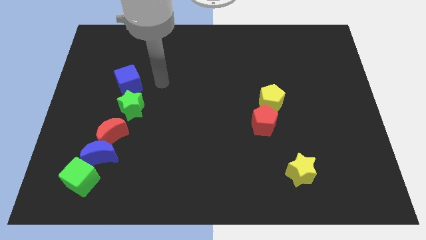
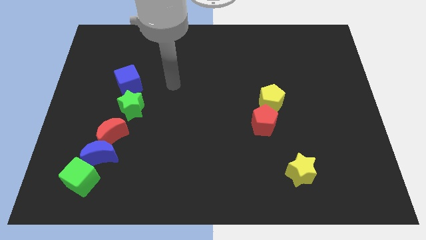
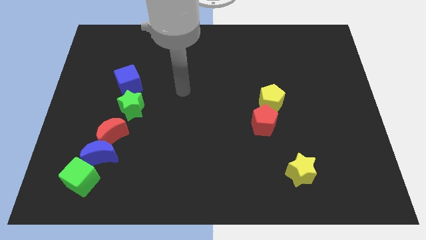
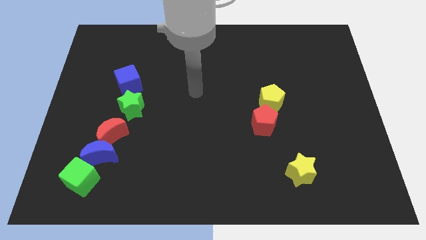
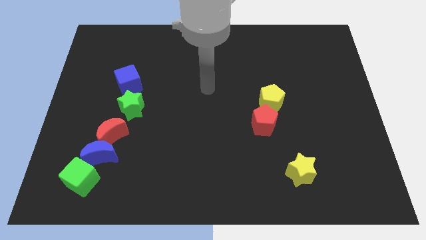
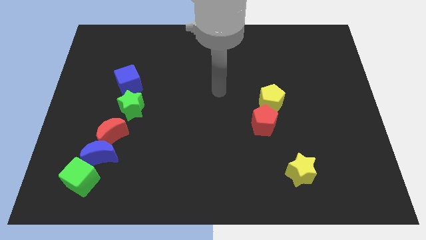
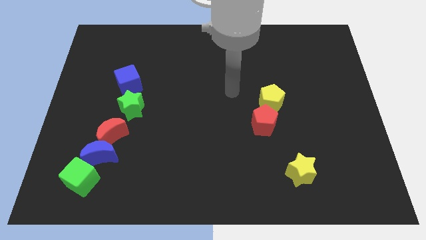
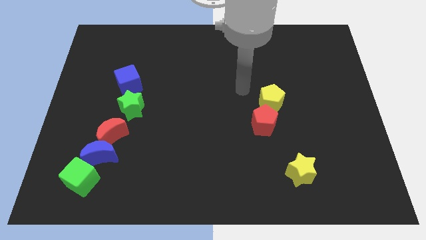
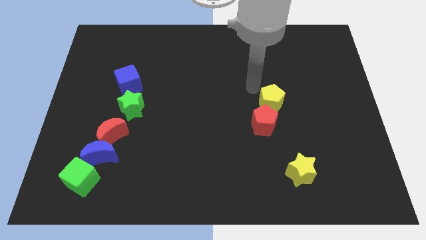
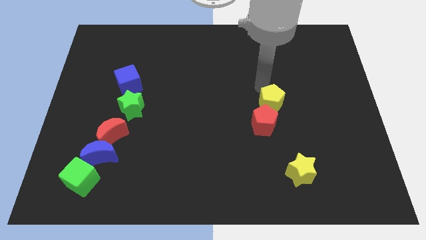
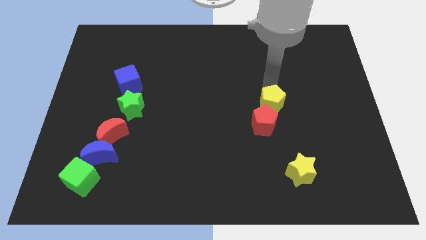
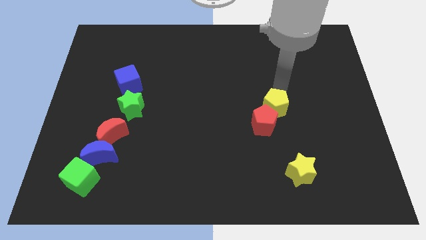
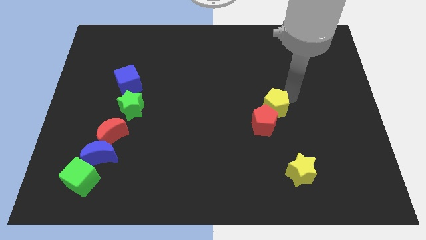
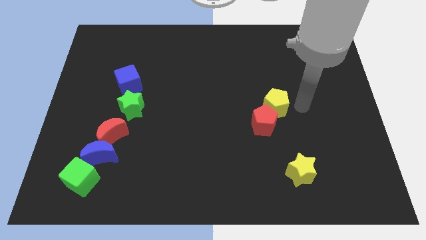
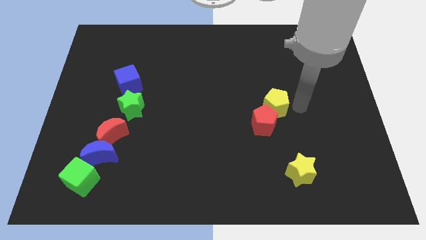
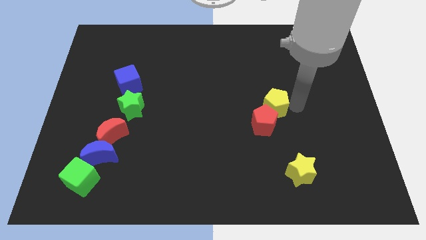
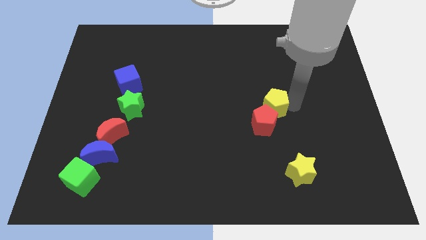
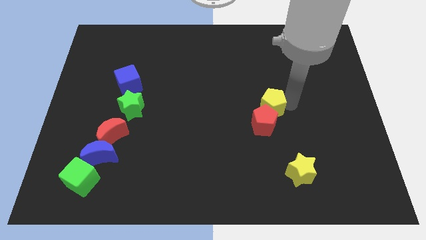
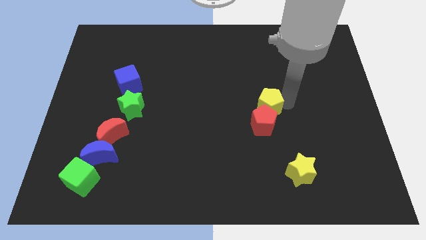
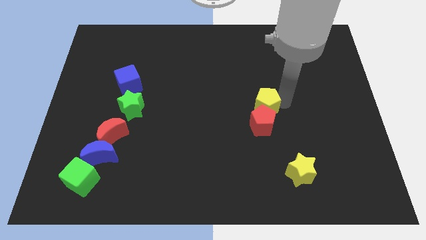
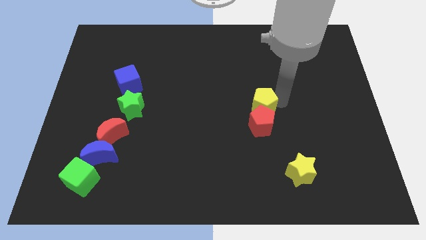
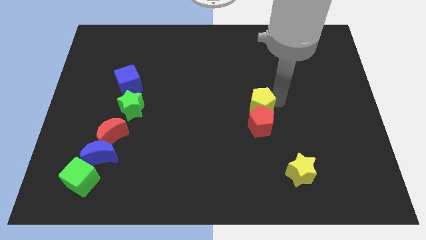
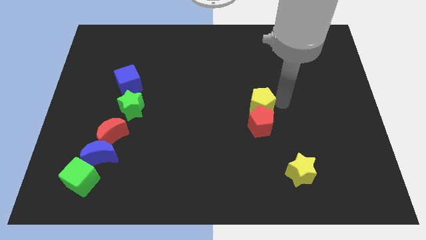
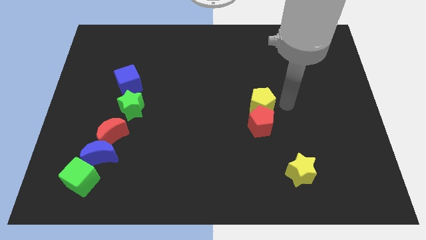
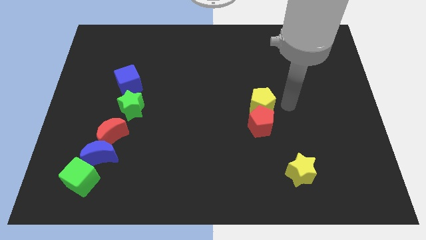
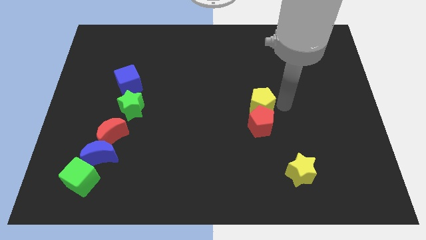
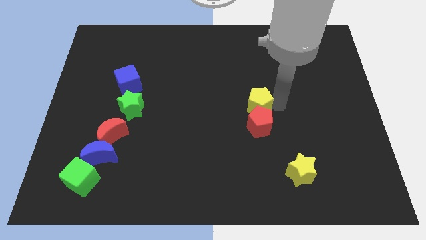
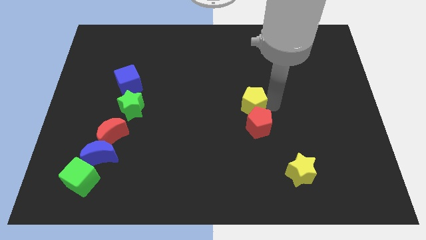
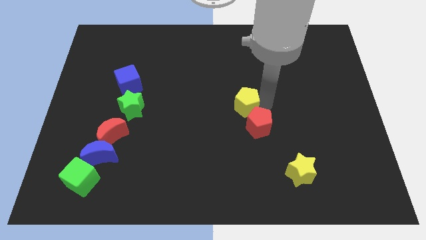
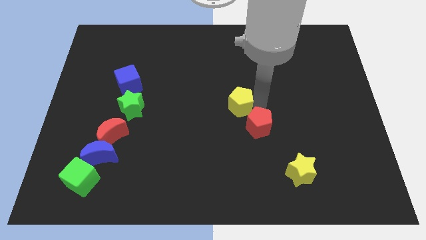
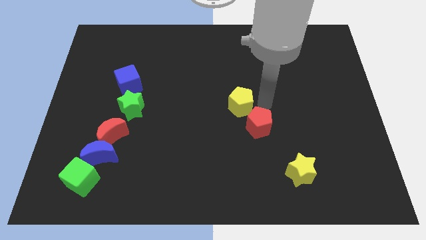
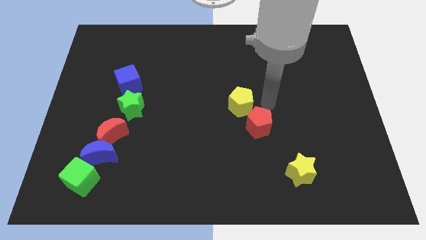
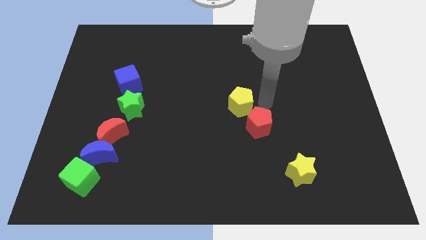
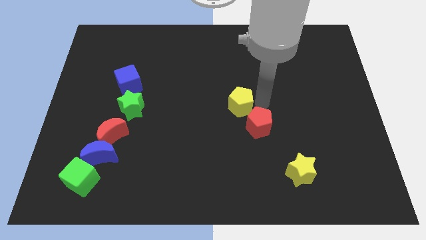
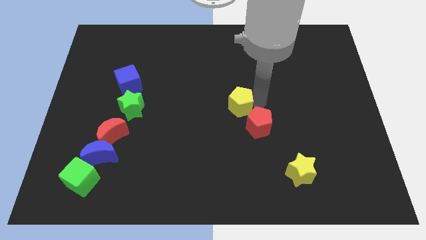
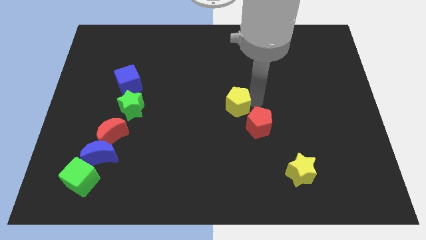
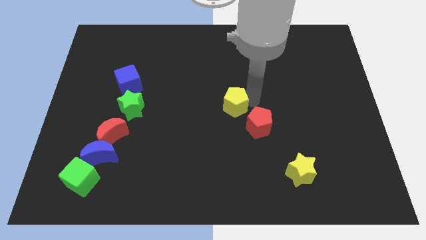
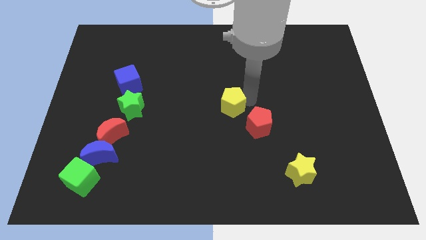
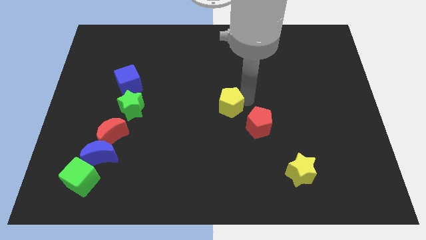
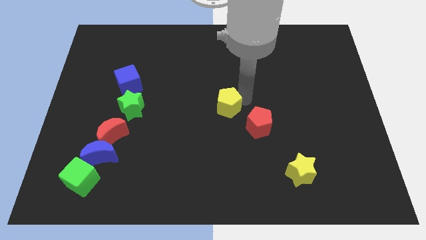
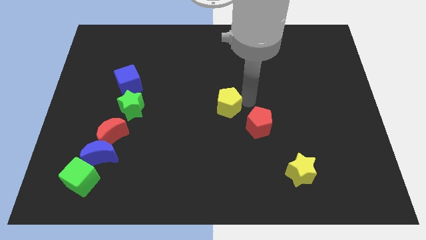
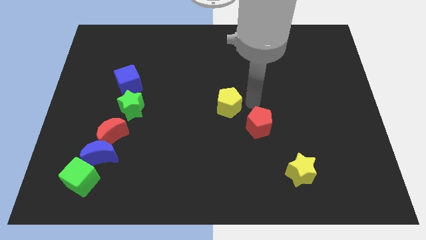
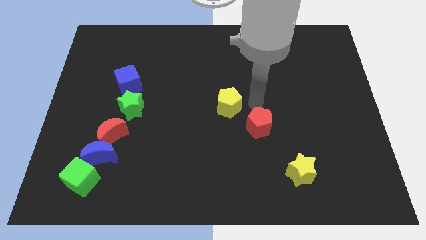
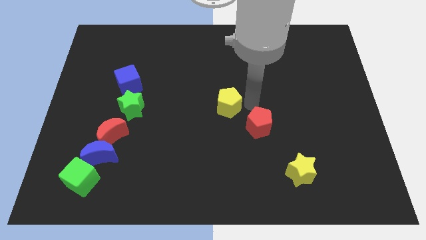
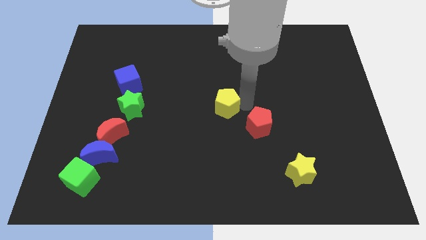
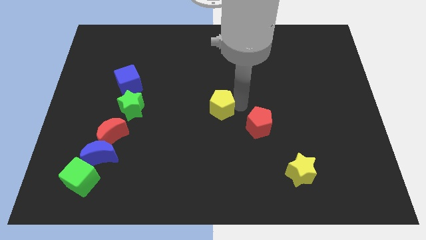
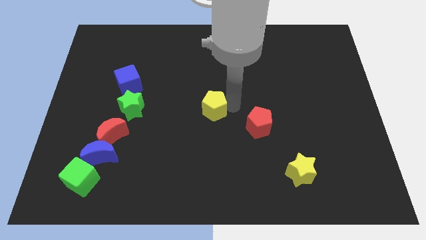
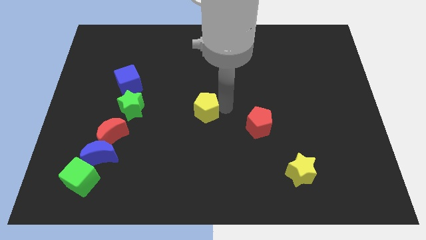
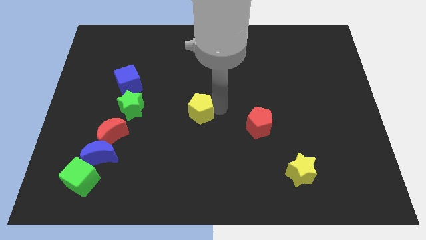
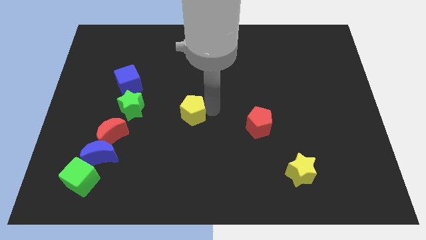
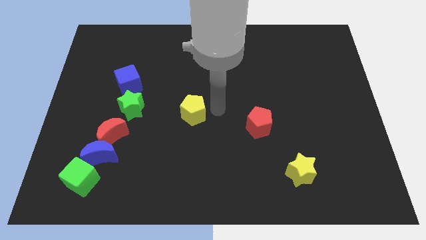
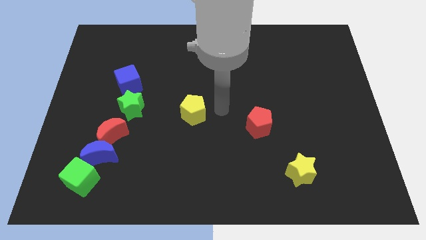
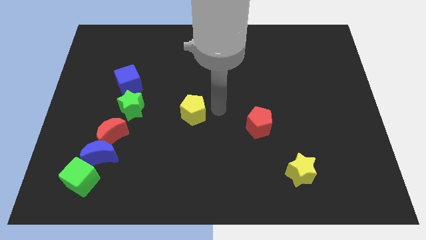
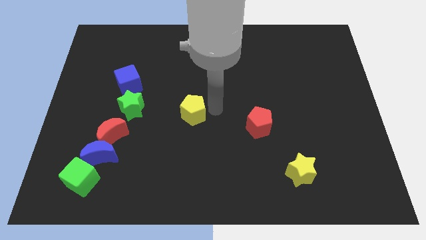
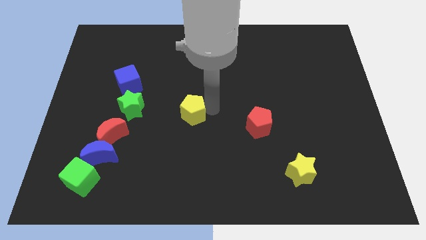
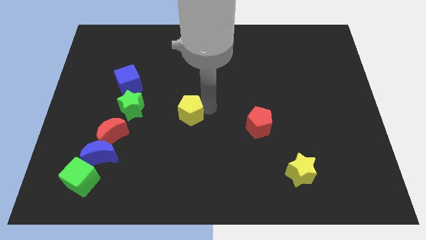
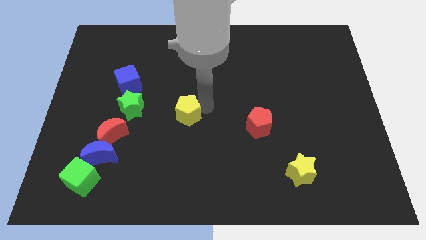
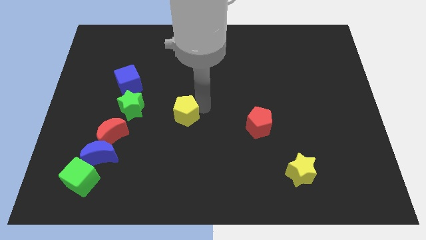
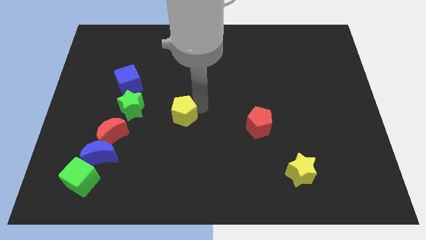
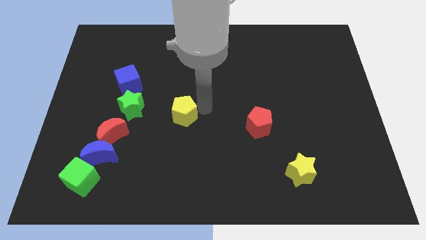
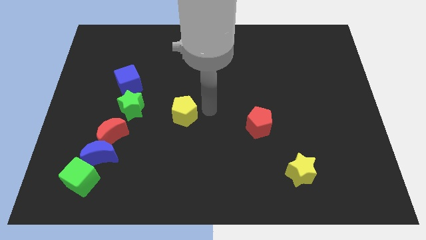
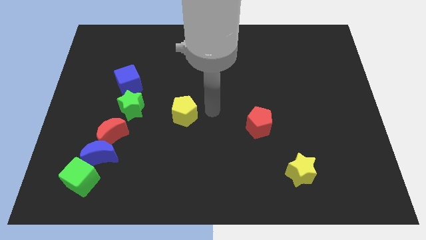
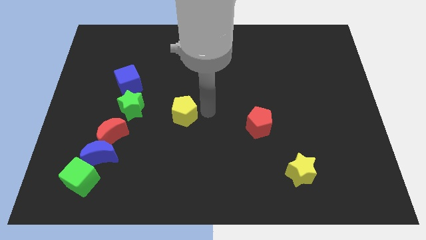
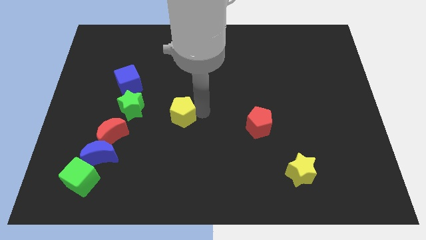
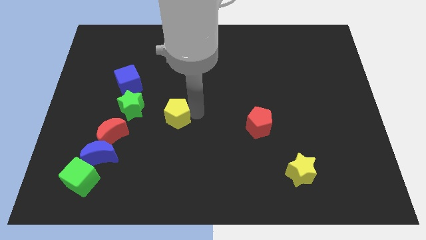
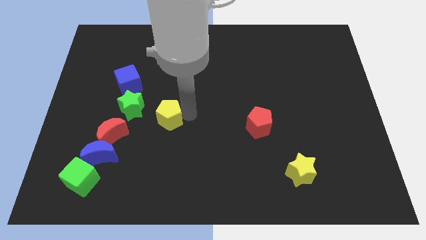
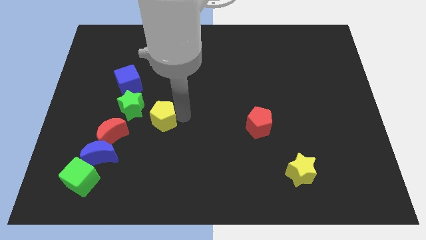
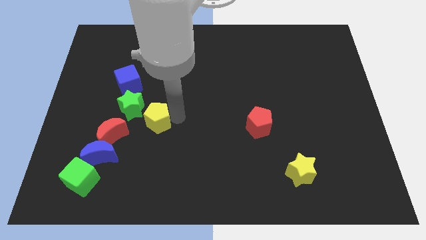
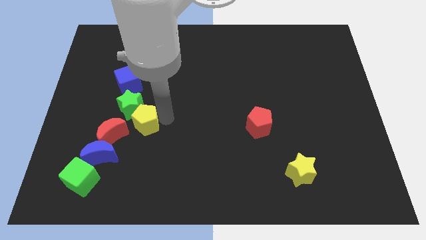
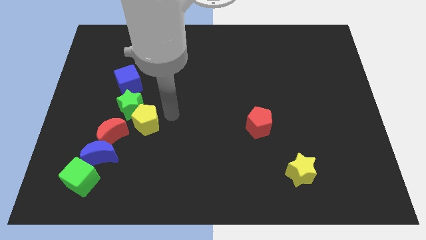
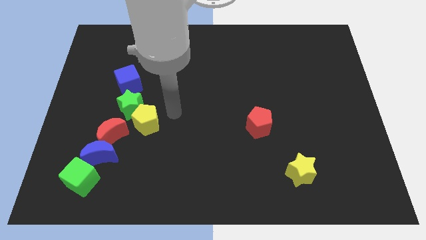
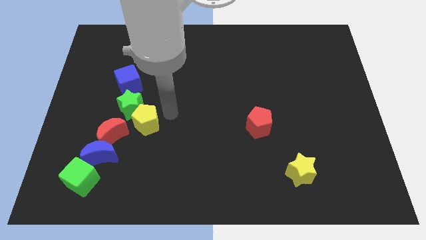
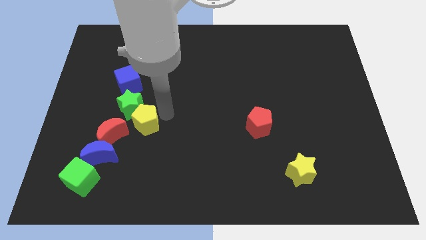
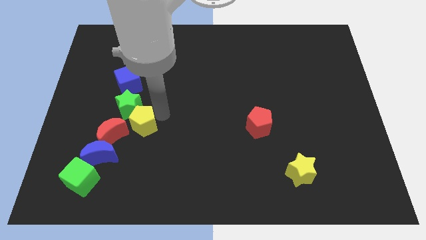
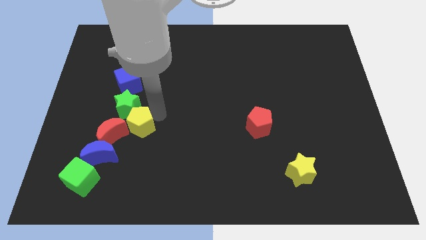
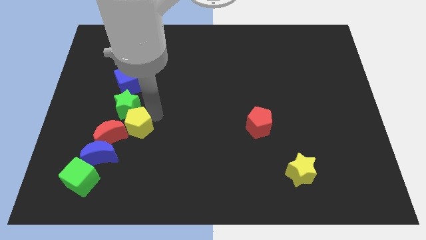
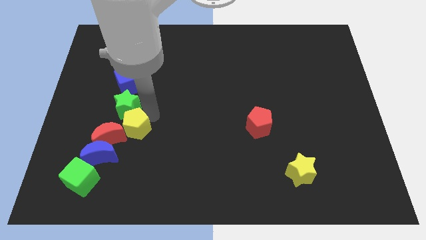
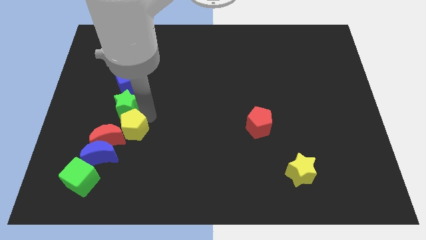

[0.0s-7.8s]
move the yellow pentagon close to the red moon
